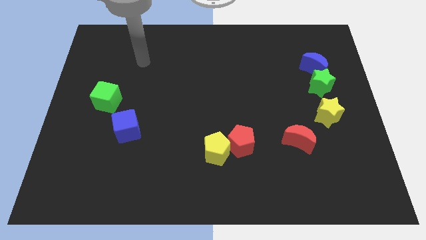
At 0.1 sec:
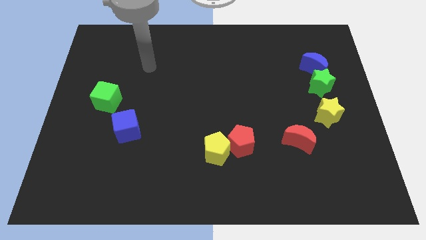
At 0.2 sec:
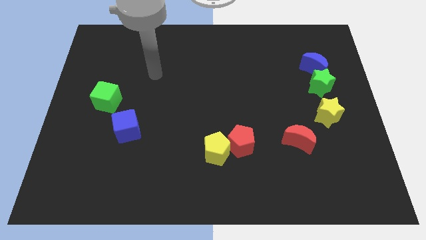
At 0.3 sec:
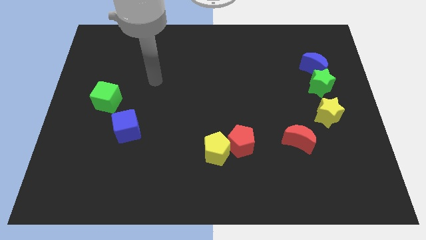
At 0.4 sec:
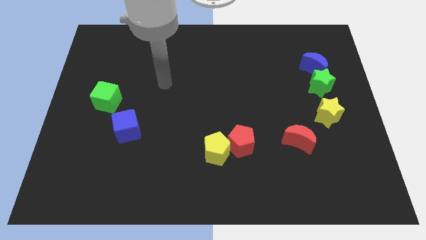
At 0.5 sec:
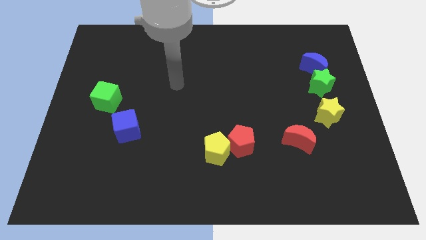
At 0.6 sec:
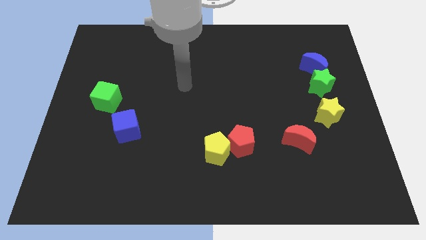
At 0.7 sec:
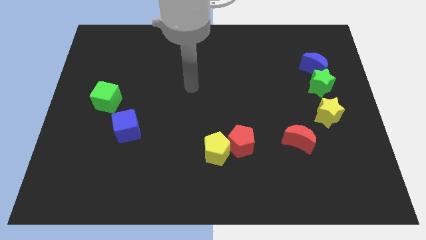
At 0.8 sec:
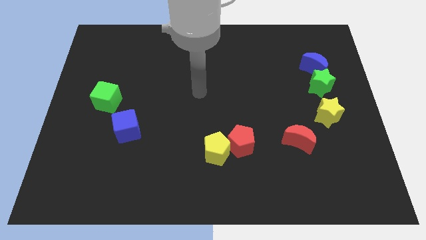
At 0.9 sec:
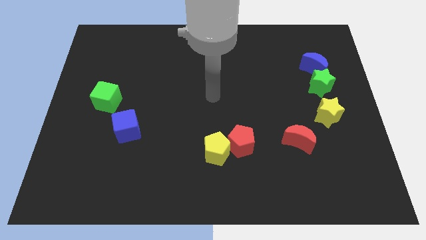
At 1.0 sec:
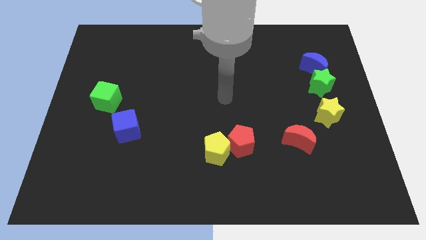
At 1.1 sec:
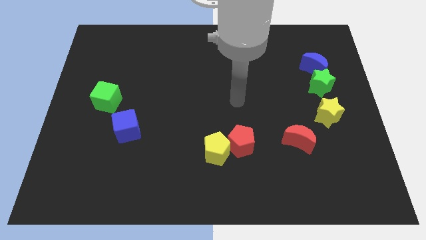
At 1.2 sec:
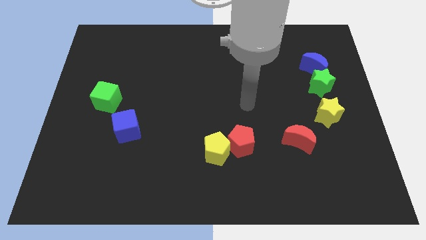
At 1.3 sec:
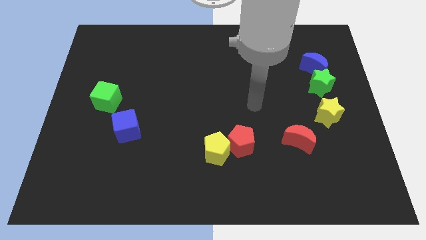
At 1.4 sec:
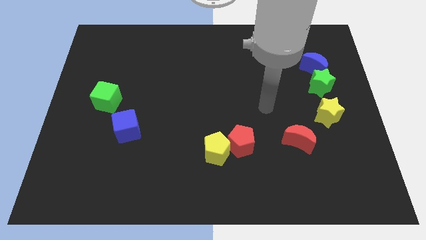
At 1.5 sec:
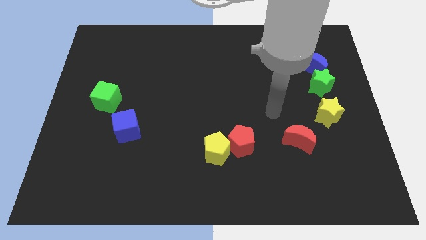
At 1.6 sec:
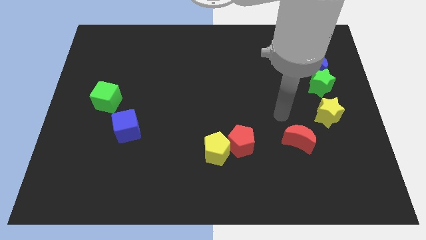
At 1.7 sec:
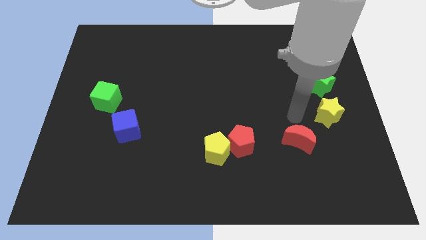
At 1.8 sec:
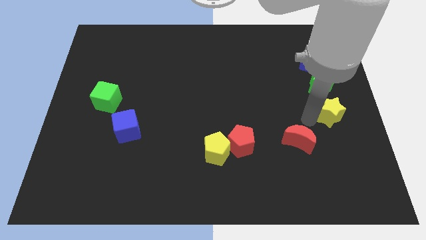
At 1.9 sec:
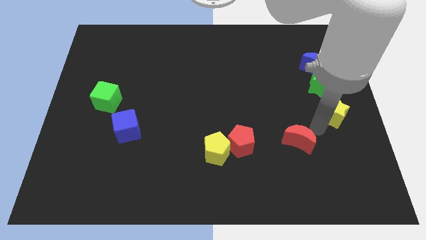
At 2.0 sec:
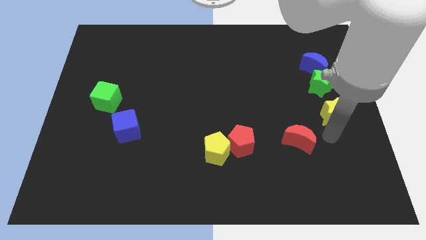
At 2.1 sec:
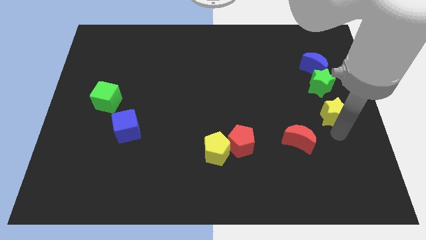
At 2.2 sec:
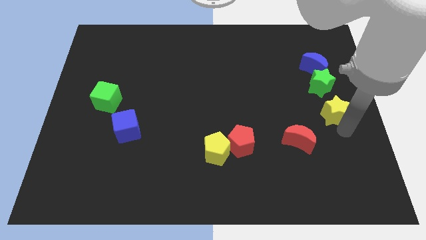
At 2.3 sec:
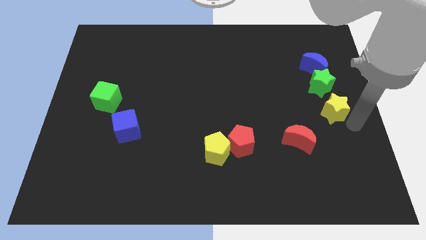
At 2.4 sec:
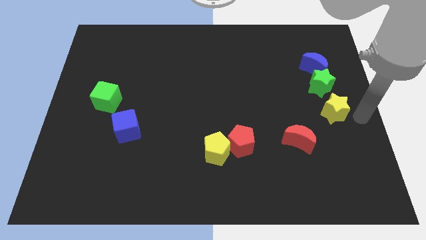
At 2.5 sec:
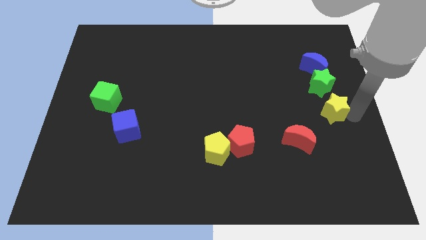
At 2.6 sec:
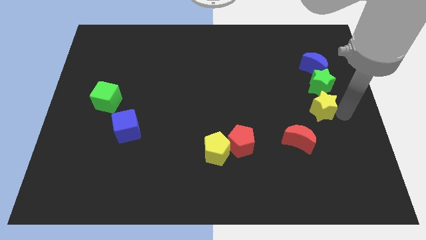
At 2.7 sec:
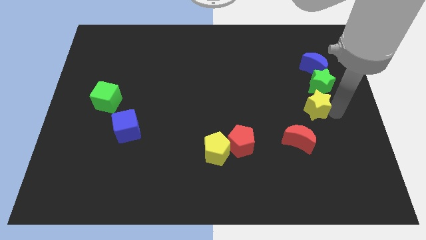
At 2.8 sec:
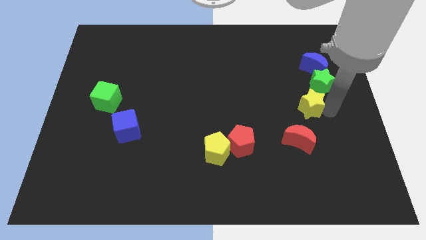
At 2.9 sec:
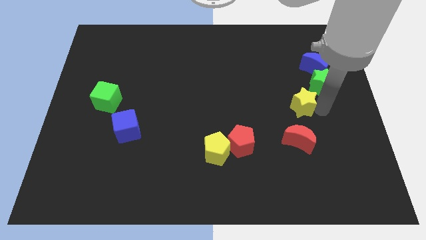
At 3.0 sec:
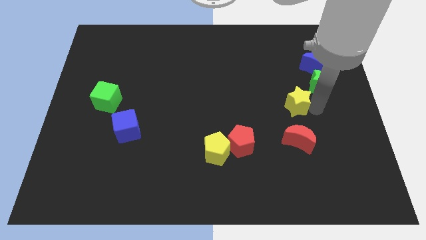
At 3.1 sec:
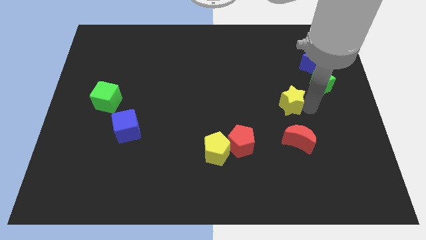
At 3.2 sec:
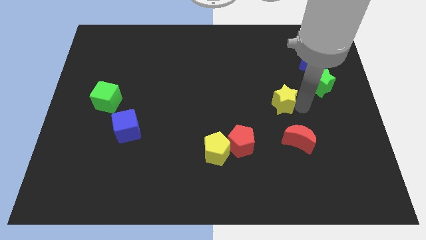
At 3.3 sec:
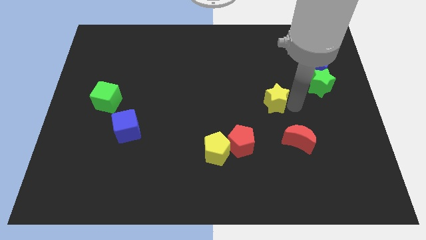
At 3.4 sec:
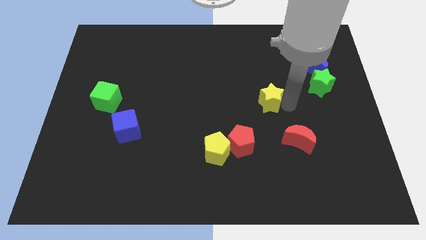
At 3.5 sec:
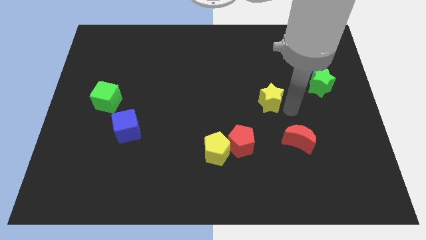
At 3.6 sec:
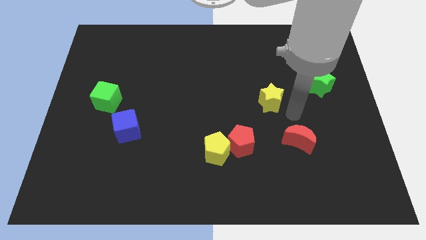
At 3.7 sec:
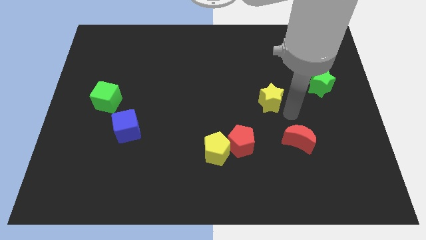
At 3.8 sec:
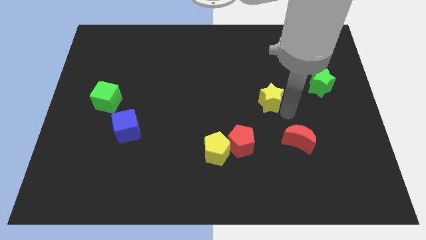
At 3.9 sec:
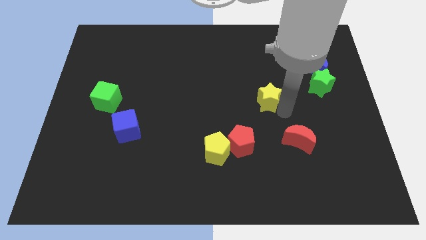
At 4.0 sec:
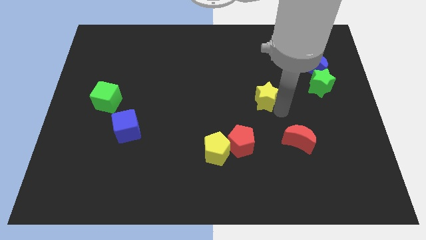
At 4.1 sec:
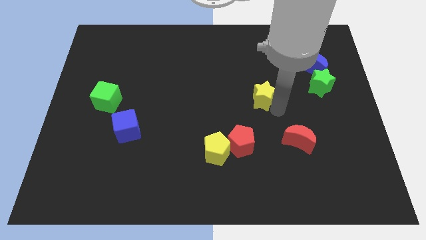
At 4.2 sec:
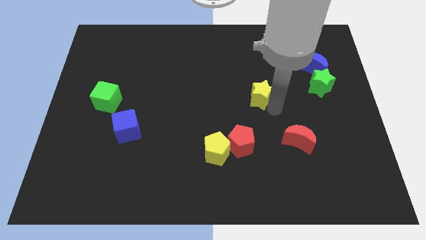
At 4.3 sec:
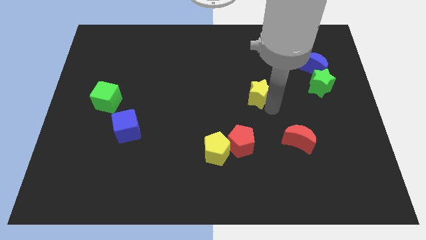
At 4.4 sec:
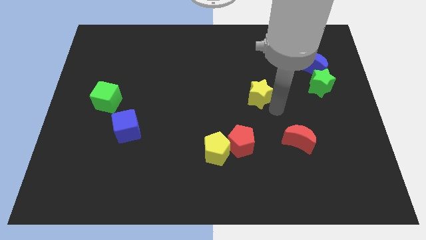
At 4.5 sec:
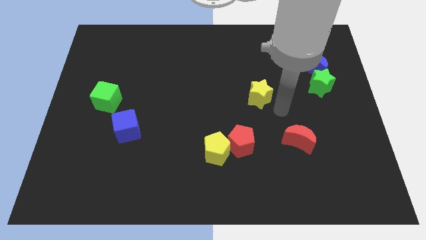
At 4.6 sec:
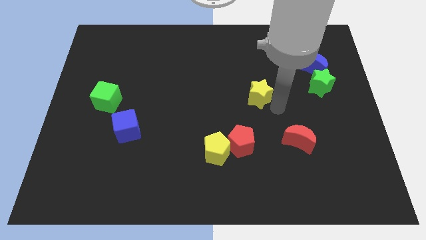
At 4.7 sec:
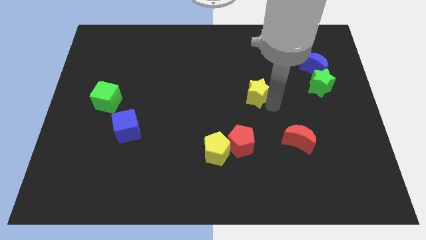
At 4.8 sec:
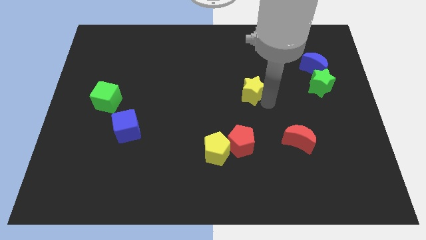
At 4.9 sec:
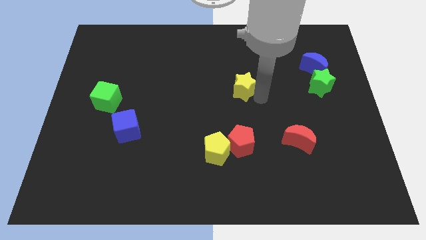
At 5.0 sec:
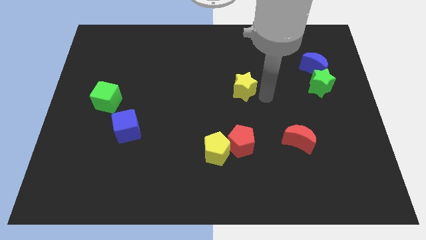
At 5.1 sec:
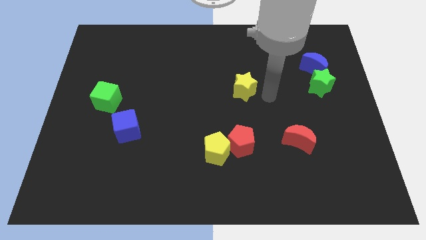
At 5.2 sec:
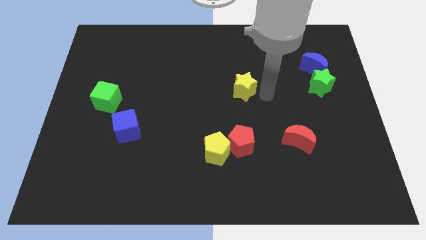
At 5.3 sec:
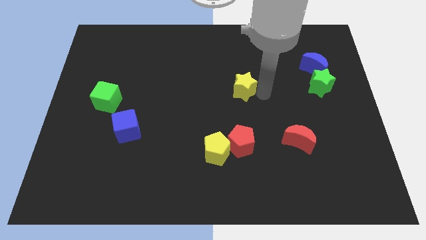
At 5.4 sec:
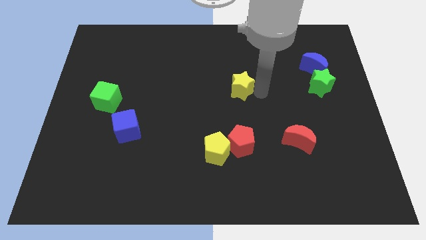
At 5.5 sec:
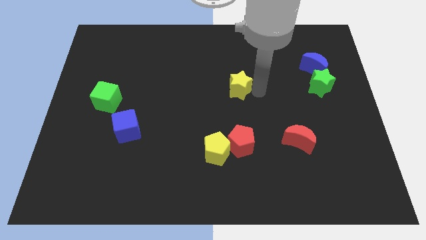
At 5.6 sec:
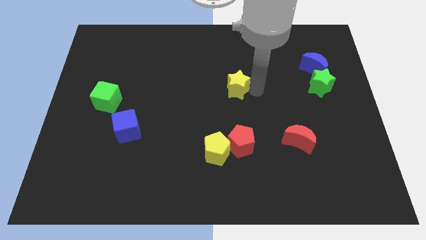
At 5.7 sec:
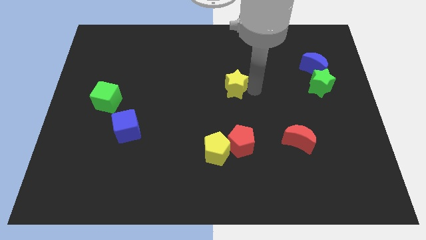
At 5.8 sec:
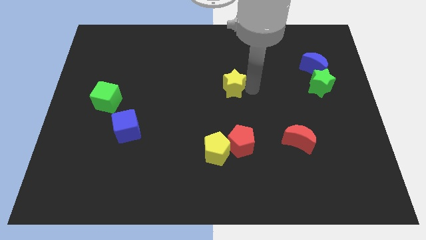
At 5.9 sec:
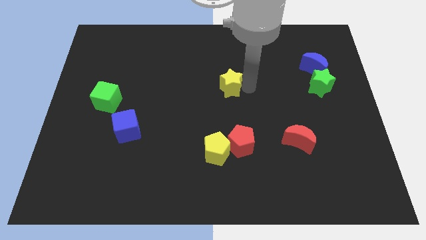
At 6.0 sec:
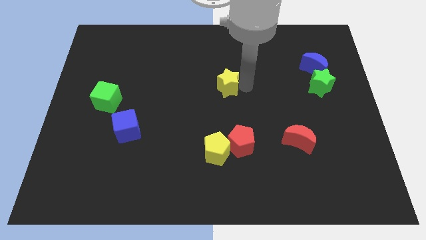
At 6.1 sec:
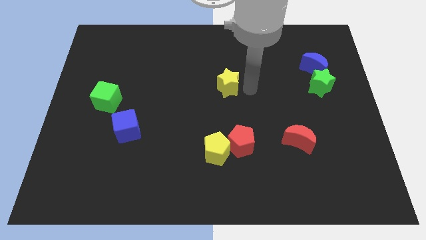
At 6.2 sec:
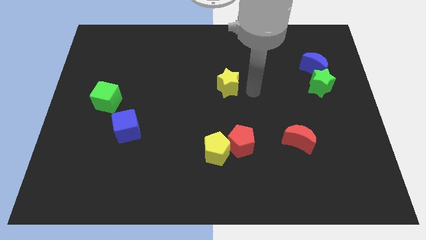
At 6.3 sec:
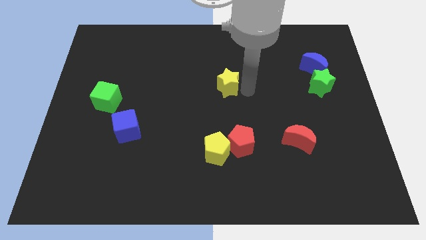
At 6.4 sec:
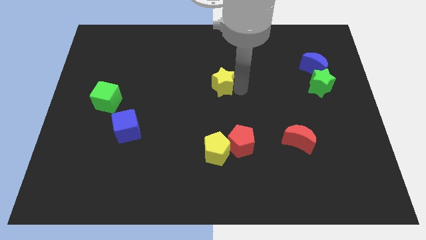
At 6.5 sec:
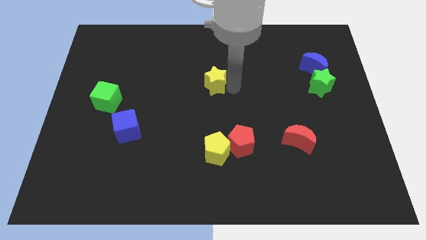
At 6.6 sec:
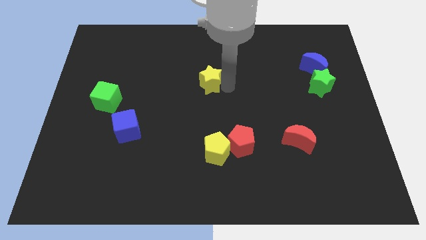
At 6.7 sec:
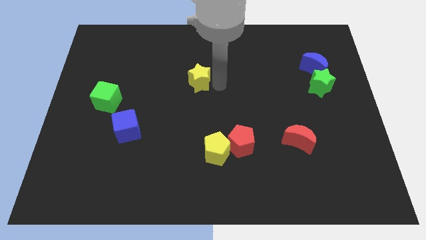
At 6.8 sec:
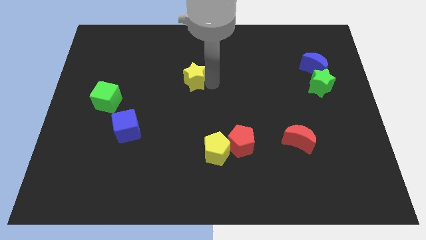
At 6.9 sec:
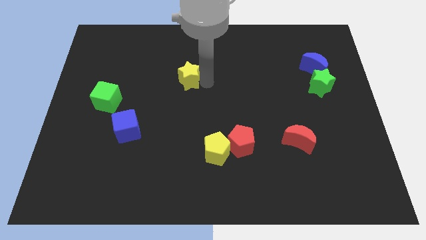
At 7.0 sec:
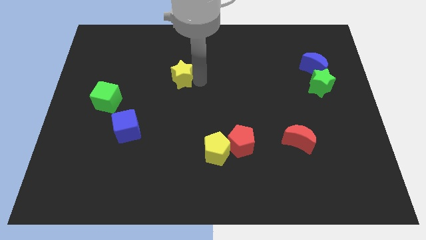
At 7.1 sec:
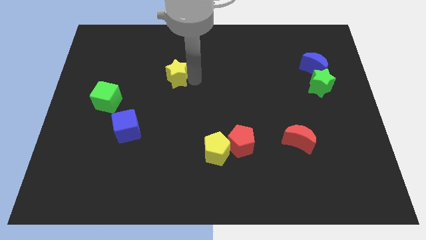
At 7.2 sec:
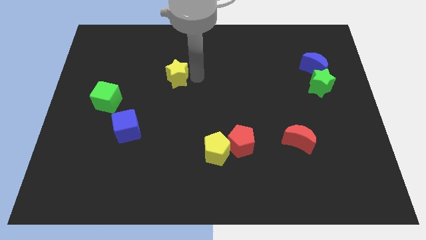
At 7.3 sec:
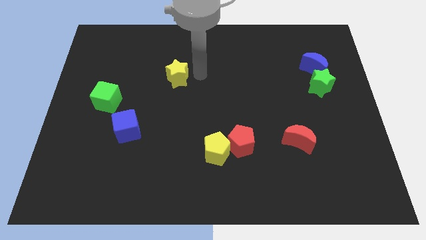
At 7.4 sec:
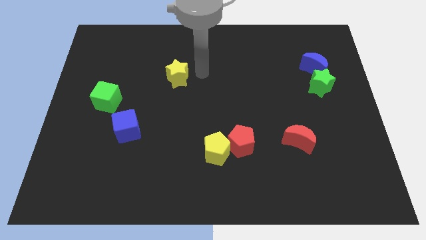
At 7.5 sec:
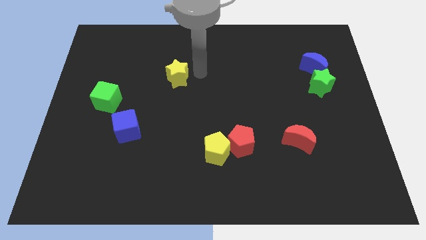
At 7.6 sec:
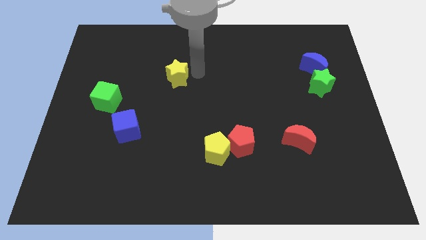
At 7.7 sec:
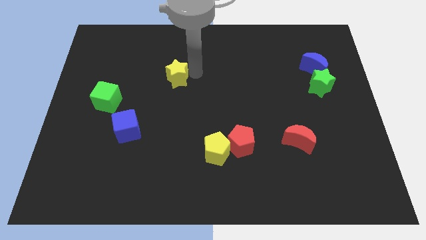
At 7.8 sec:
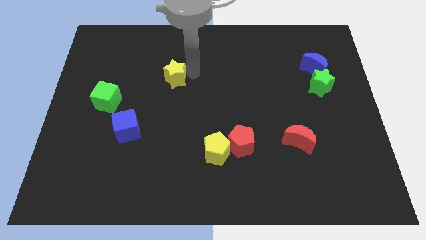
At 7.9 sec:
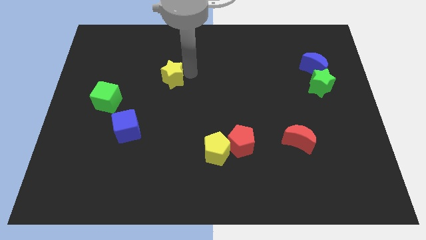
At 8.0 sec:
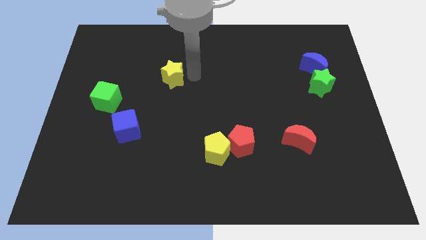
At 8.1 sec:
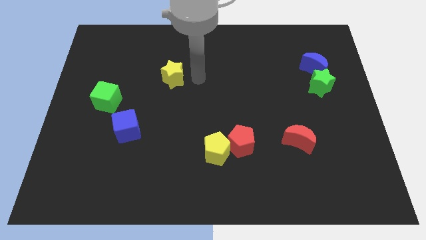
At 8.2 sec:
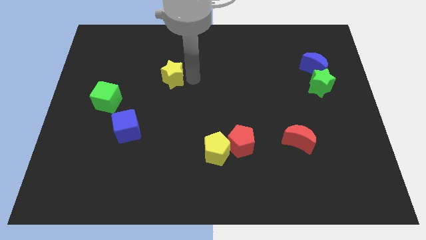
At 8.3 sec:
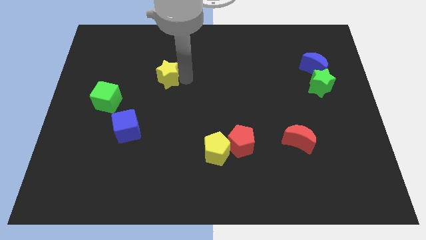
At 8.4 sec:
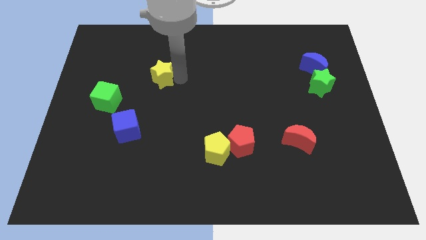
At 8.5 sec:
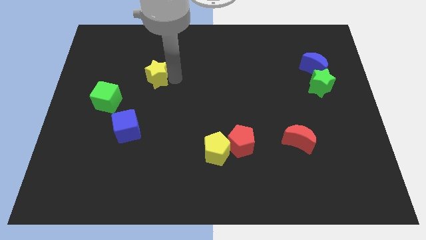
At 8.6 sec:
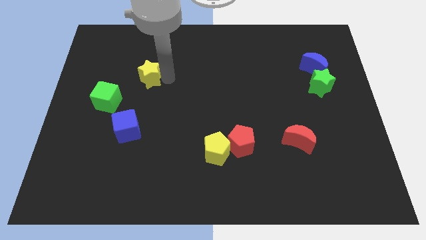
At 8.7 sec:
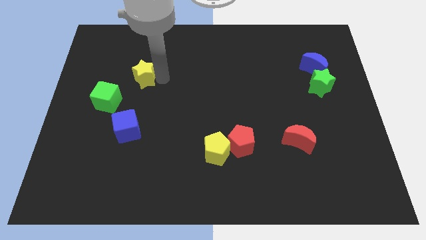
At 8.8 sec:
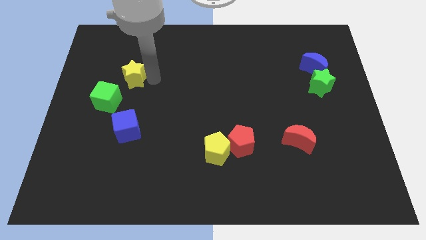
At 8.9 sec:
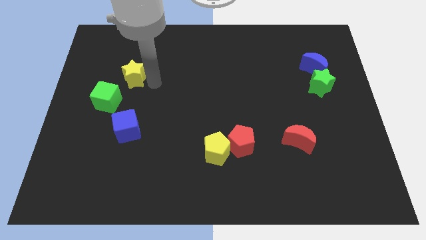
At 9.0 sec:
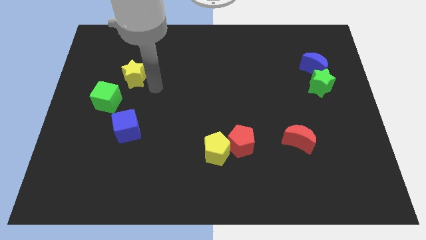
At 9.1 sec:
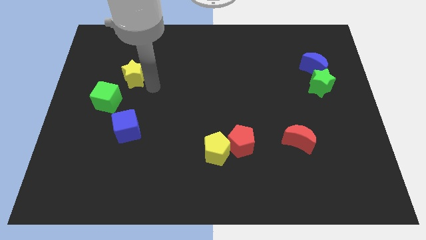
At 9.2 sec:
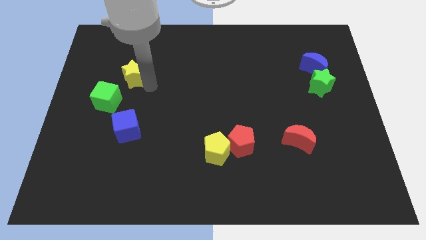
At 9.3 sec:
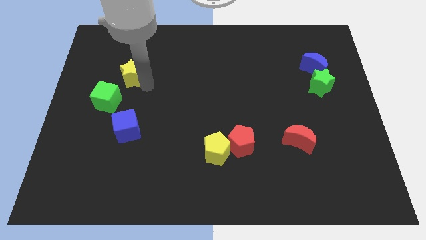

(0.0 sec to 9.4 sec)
slide the yellow star above the green cube
